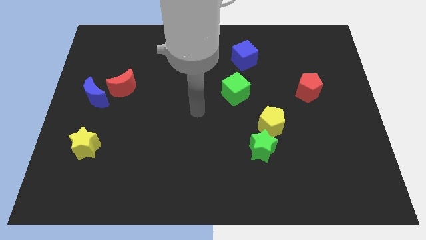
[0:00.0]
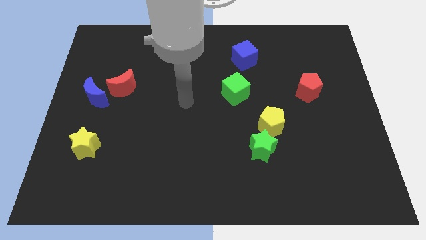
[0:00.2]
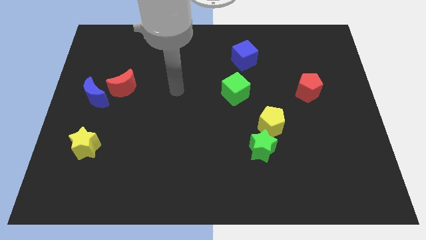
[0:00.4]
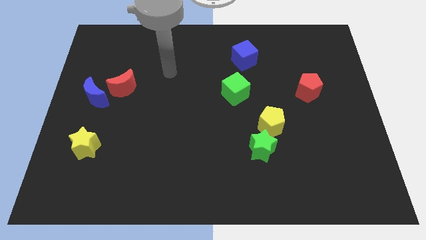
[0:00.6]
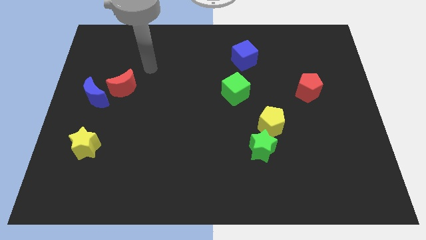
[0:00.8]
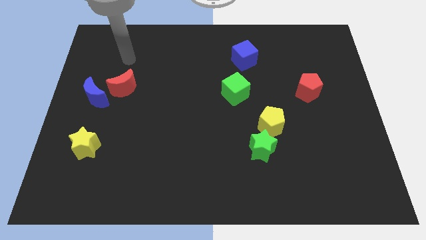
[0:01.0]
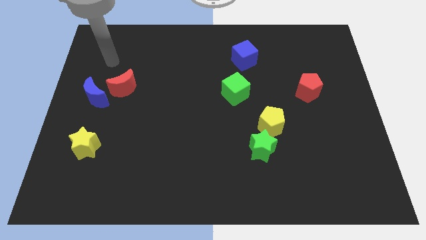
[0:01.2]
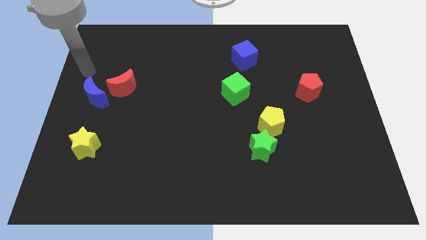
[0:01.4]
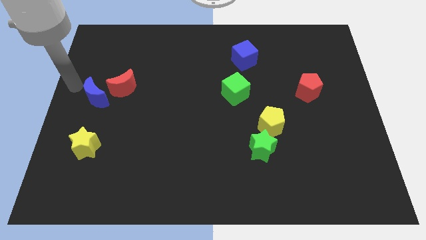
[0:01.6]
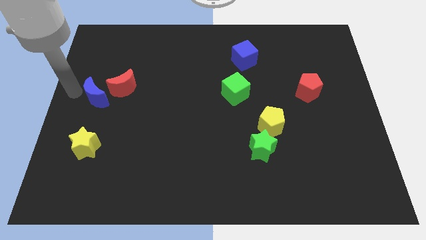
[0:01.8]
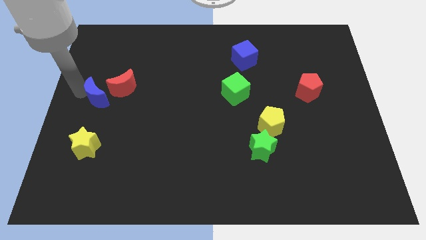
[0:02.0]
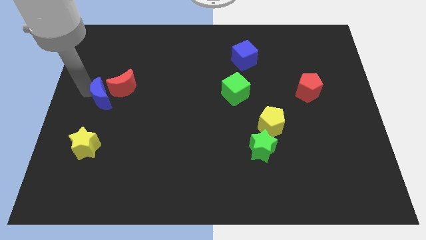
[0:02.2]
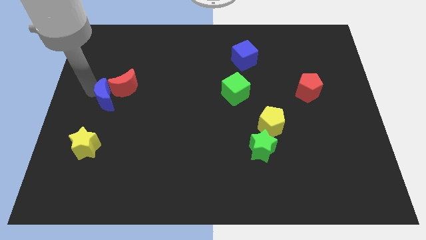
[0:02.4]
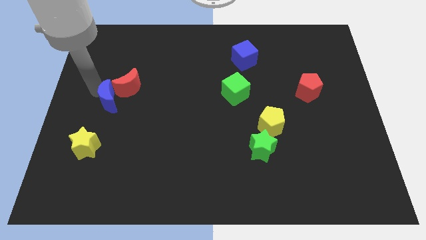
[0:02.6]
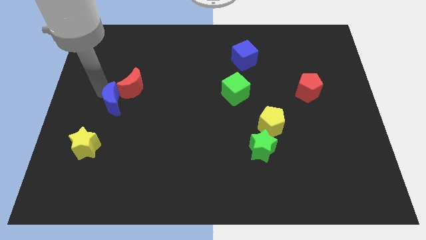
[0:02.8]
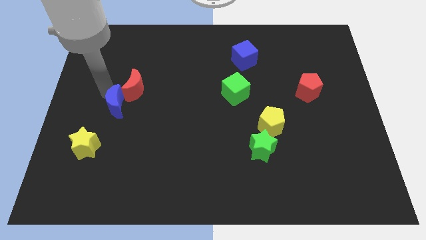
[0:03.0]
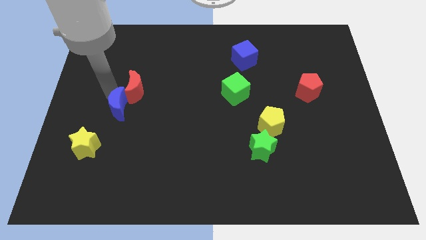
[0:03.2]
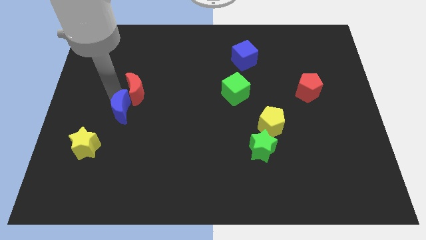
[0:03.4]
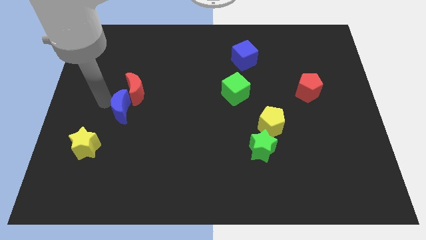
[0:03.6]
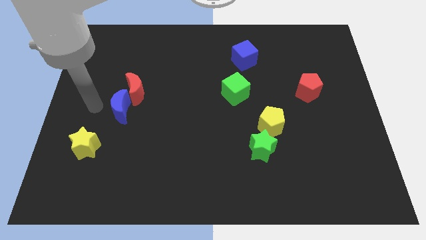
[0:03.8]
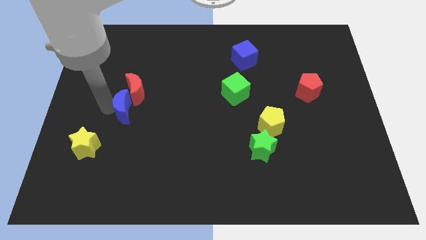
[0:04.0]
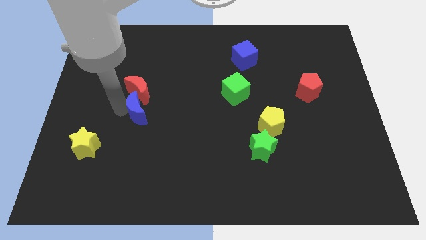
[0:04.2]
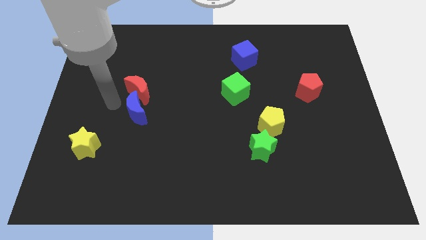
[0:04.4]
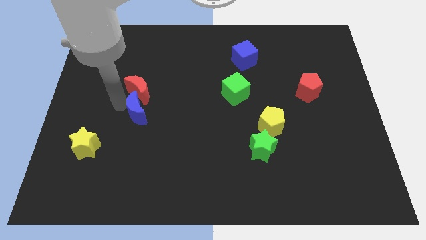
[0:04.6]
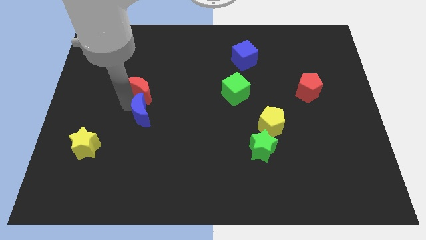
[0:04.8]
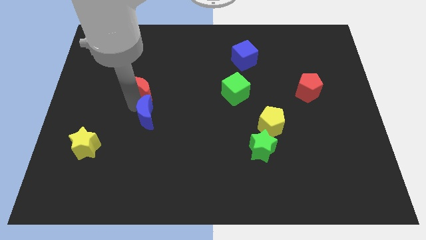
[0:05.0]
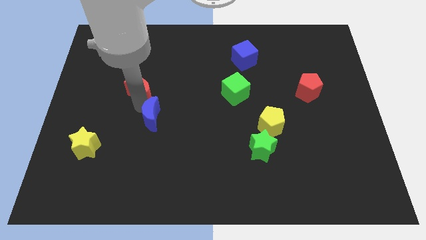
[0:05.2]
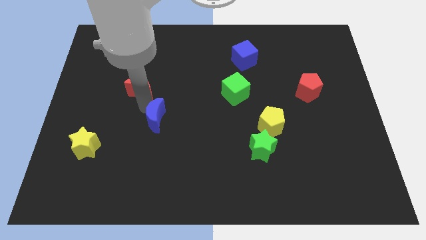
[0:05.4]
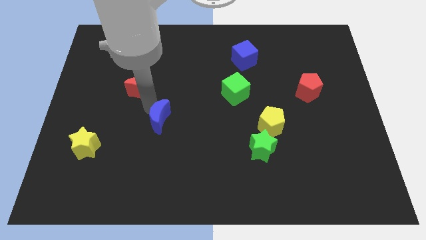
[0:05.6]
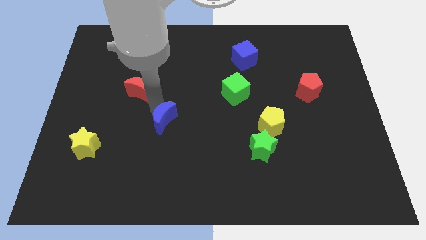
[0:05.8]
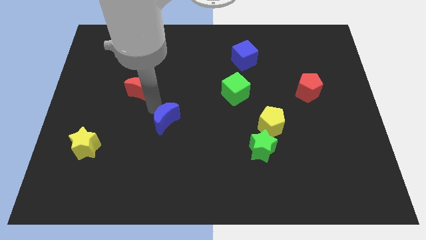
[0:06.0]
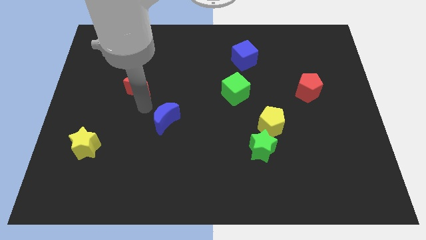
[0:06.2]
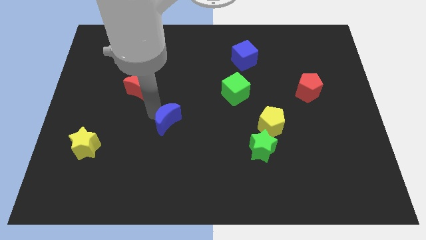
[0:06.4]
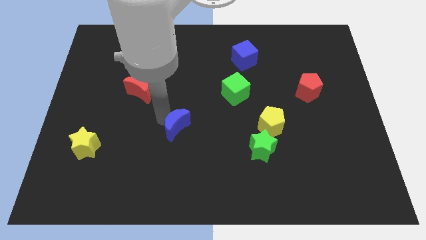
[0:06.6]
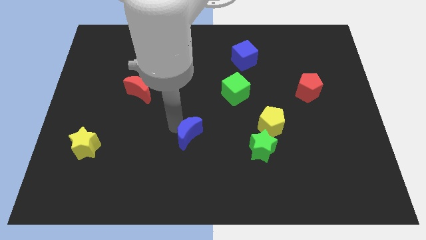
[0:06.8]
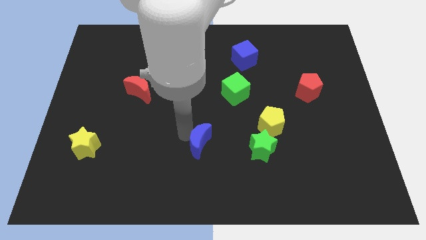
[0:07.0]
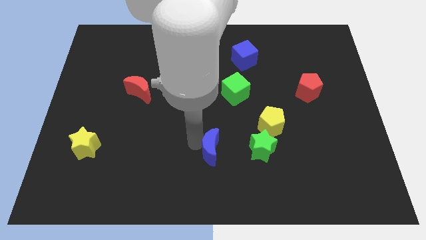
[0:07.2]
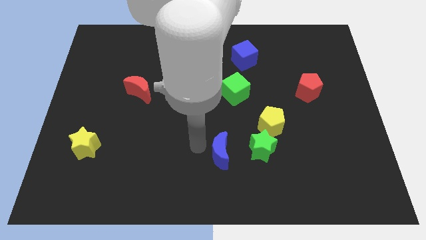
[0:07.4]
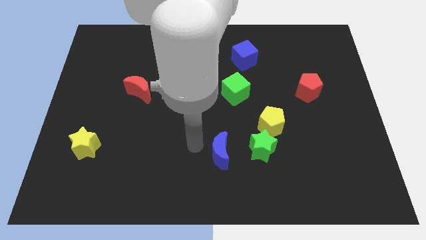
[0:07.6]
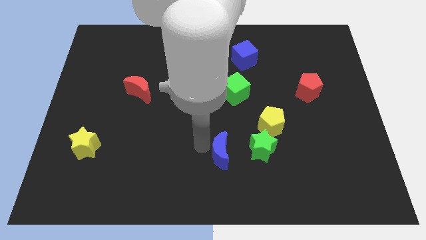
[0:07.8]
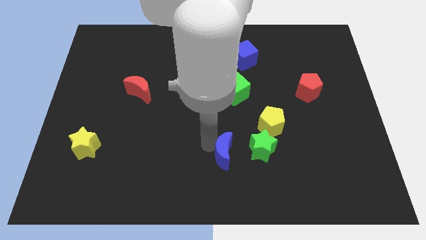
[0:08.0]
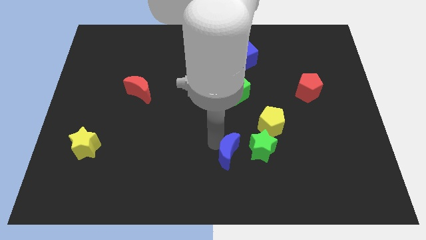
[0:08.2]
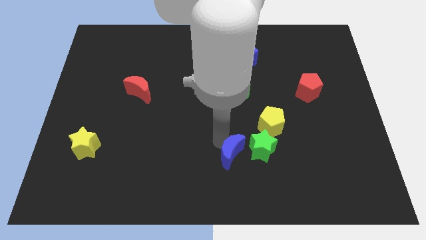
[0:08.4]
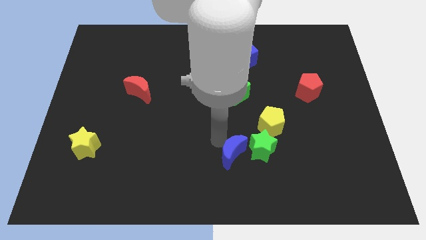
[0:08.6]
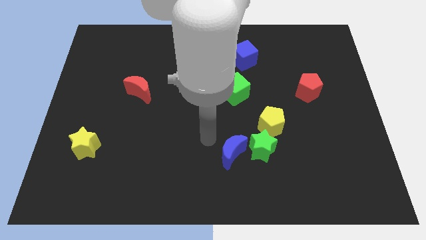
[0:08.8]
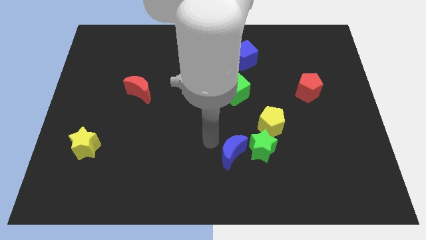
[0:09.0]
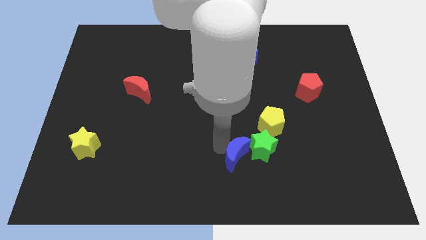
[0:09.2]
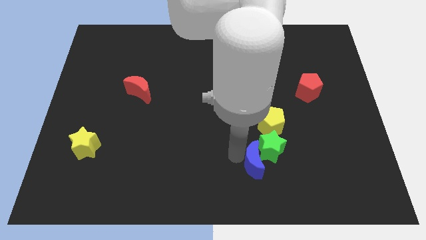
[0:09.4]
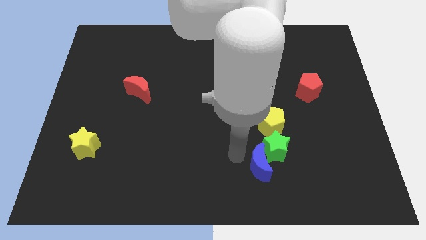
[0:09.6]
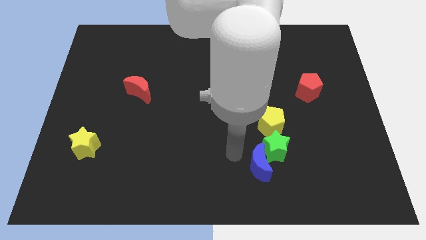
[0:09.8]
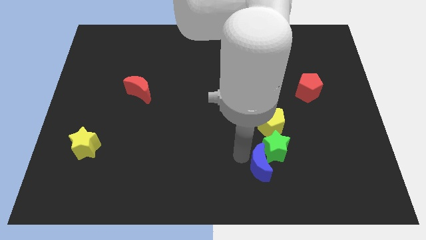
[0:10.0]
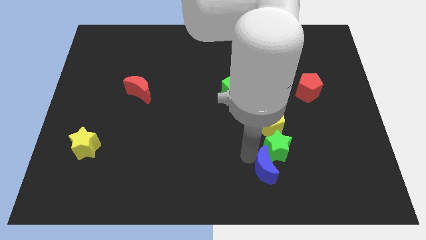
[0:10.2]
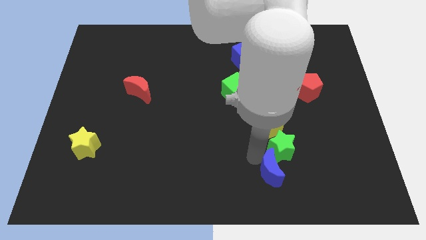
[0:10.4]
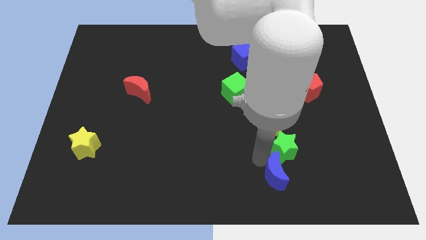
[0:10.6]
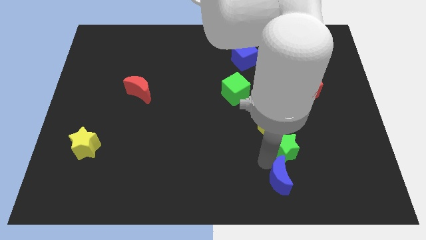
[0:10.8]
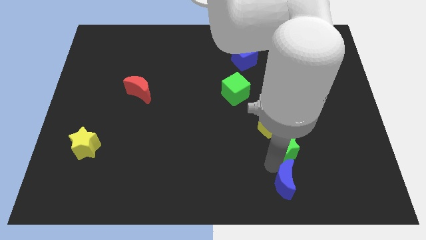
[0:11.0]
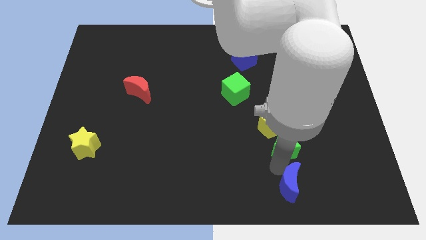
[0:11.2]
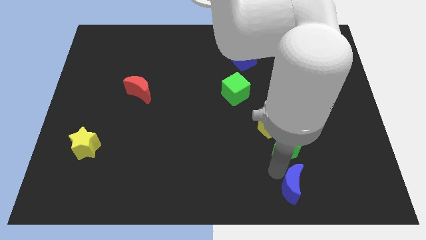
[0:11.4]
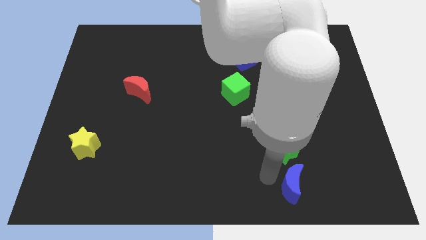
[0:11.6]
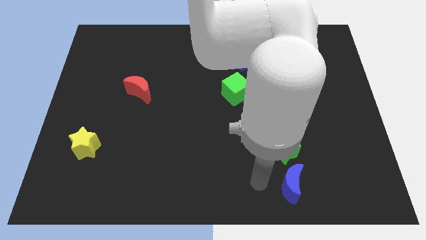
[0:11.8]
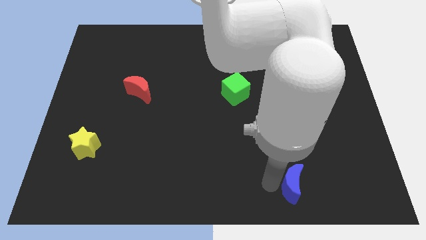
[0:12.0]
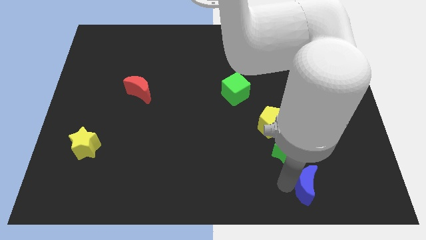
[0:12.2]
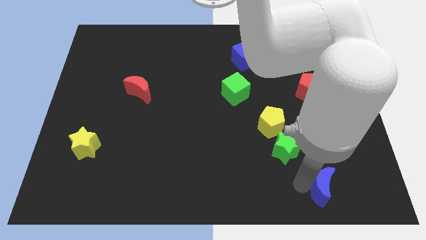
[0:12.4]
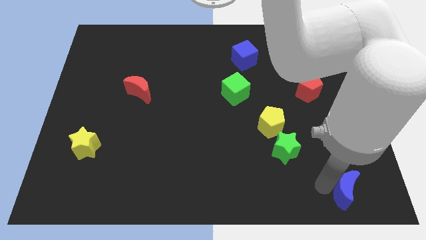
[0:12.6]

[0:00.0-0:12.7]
put the blue moon to the bottom right

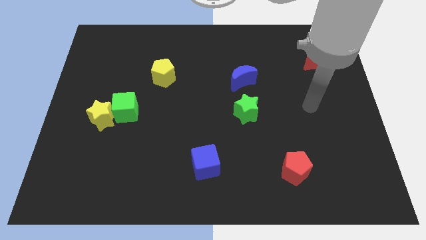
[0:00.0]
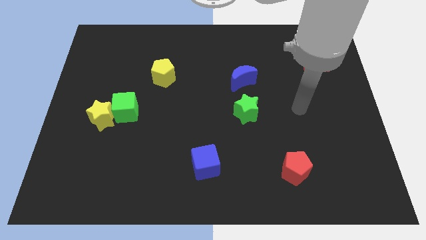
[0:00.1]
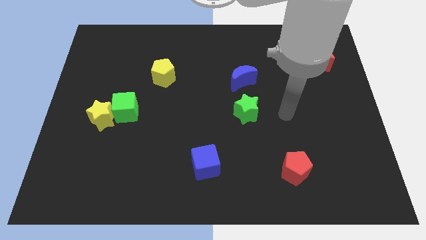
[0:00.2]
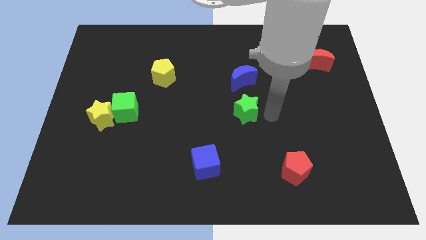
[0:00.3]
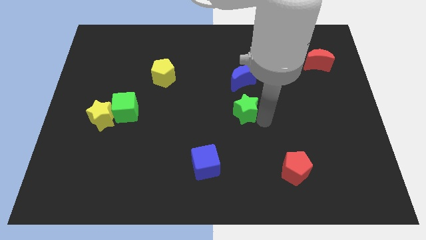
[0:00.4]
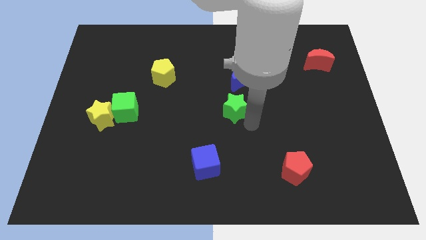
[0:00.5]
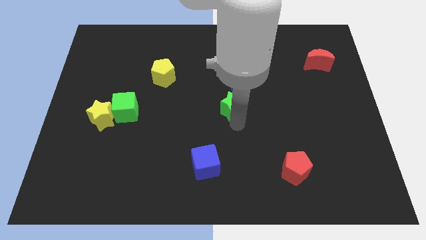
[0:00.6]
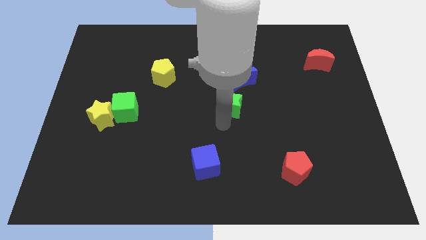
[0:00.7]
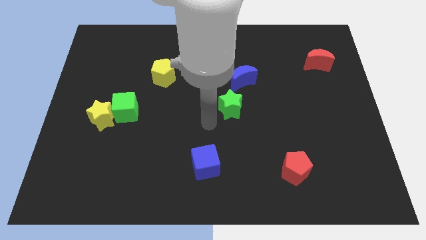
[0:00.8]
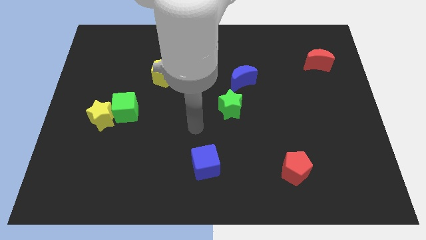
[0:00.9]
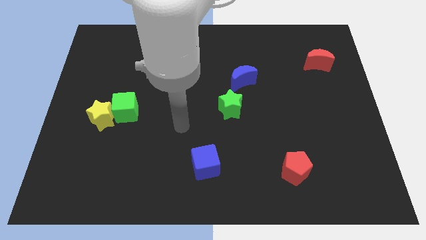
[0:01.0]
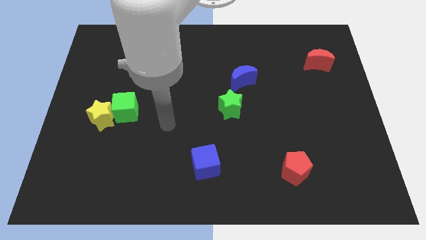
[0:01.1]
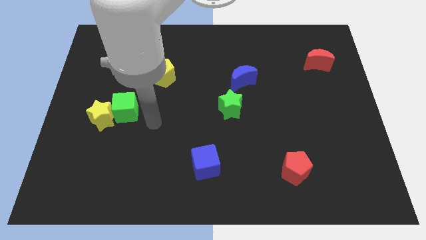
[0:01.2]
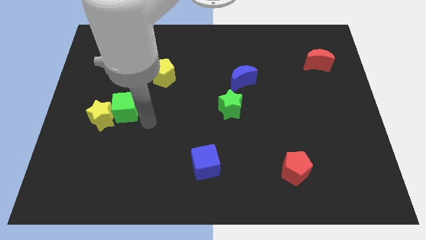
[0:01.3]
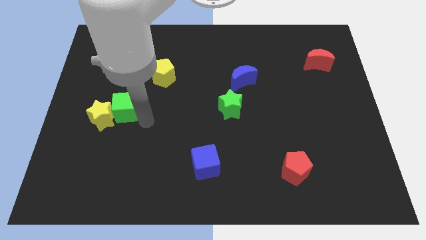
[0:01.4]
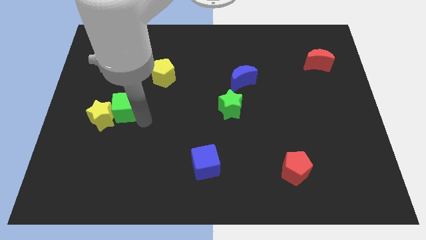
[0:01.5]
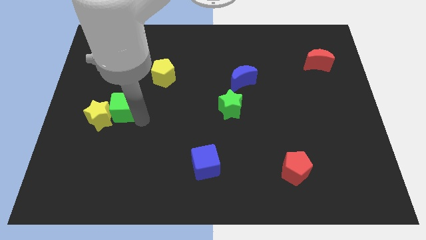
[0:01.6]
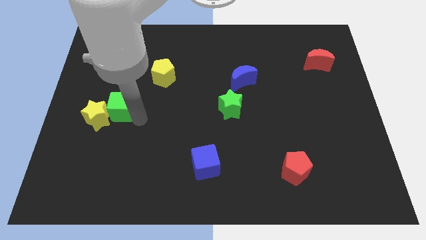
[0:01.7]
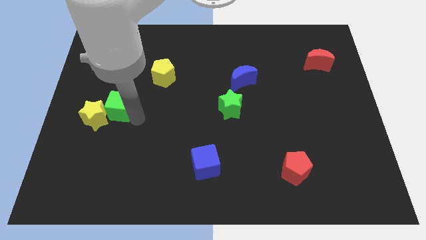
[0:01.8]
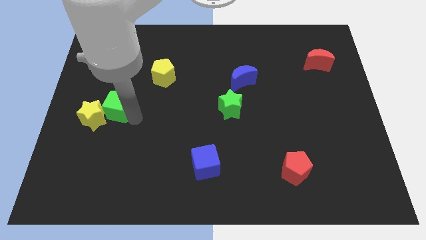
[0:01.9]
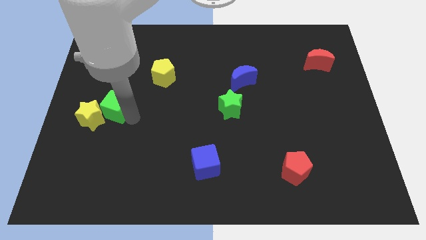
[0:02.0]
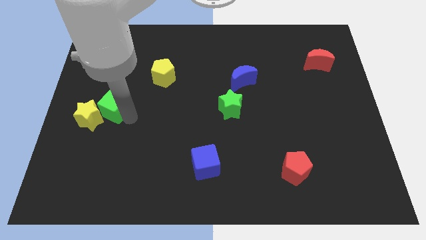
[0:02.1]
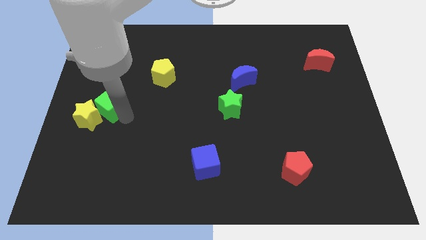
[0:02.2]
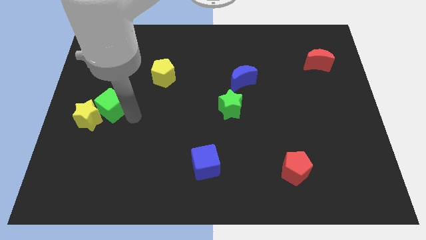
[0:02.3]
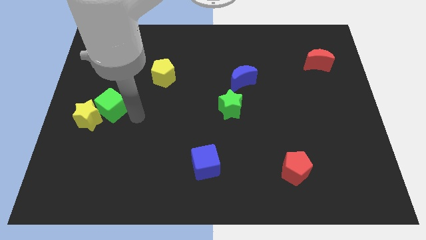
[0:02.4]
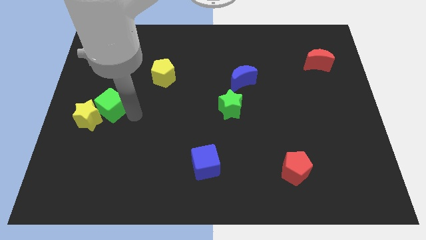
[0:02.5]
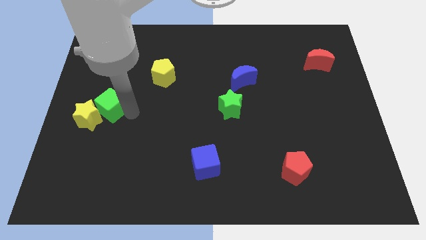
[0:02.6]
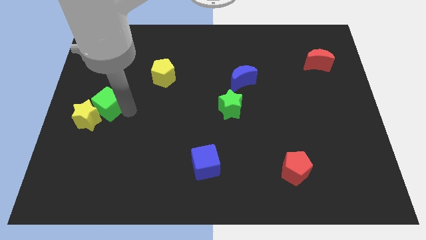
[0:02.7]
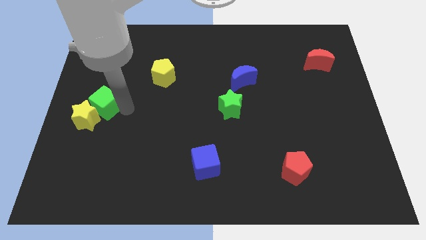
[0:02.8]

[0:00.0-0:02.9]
move the green cube to the left side of the board
